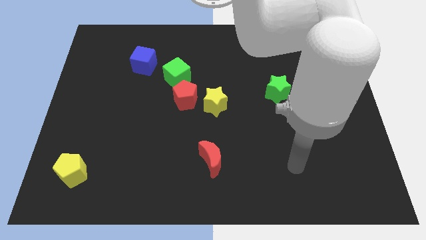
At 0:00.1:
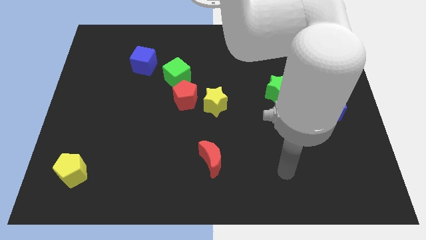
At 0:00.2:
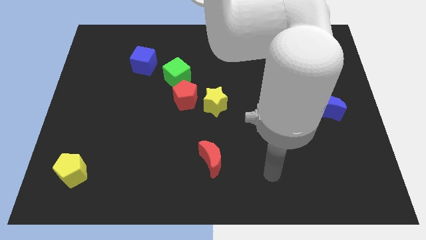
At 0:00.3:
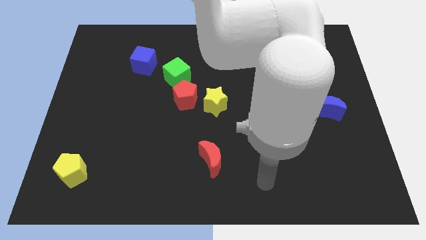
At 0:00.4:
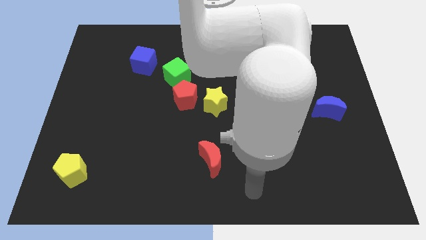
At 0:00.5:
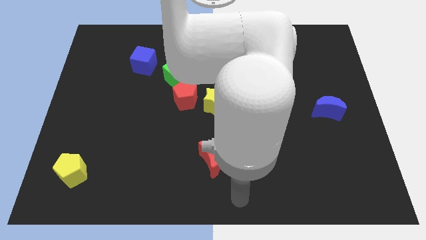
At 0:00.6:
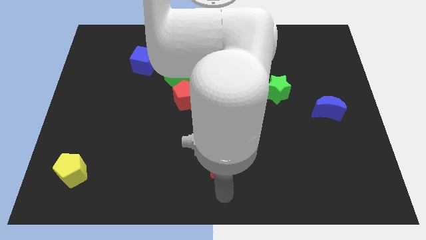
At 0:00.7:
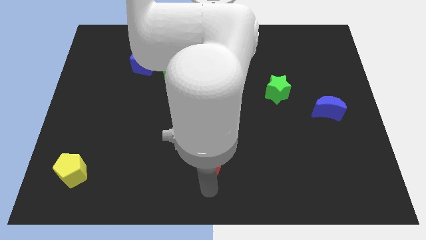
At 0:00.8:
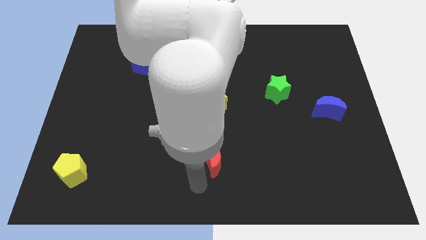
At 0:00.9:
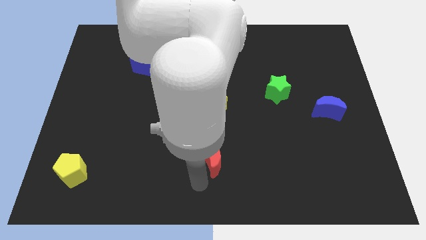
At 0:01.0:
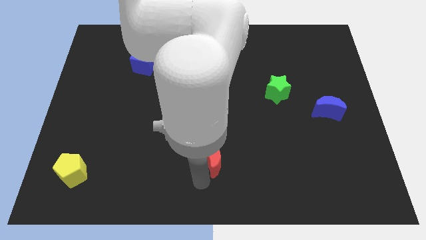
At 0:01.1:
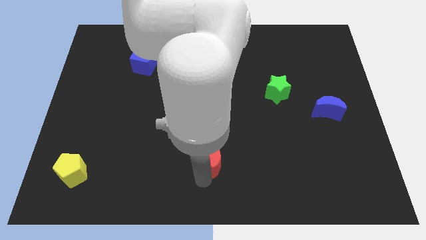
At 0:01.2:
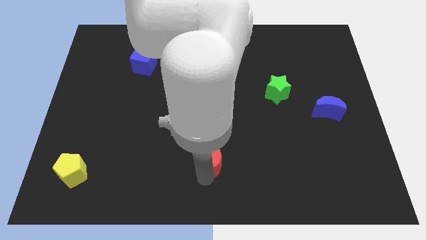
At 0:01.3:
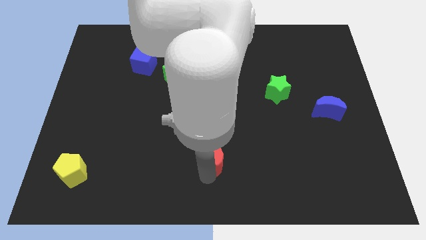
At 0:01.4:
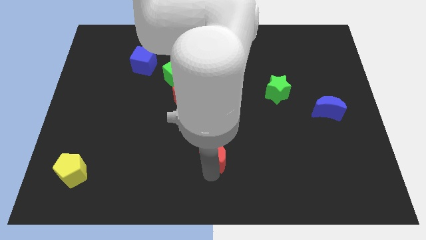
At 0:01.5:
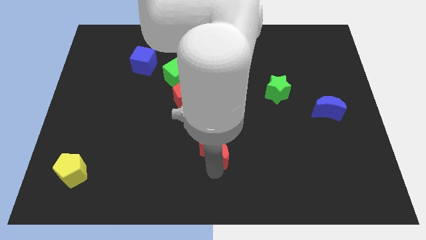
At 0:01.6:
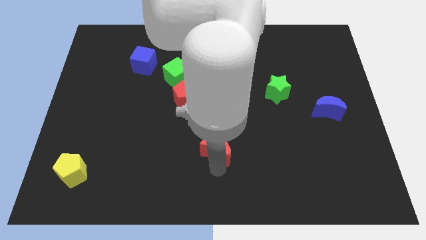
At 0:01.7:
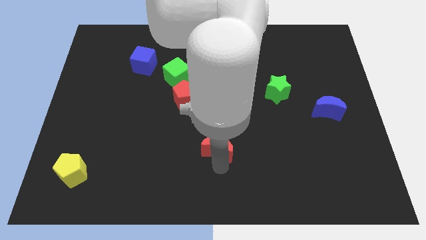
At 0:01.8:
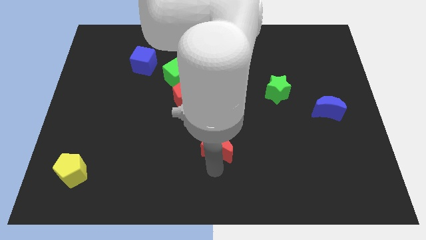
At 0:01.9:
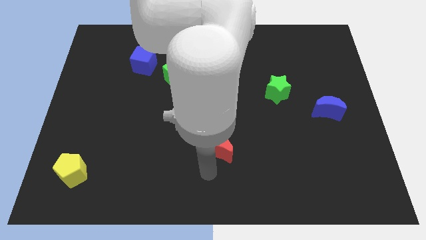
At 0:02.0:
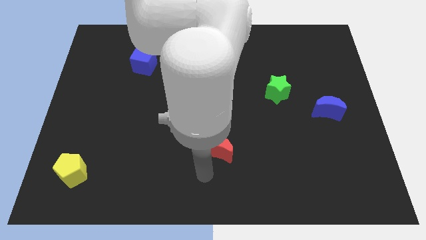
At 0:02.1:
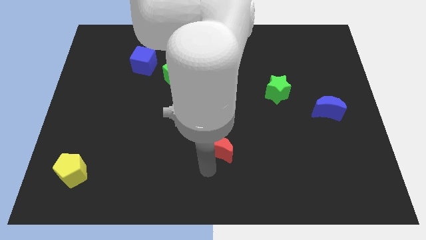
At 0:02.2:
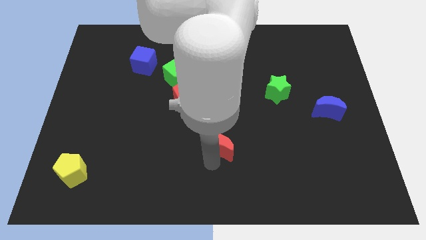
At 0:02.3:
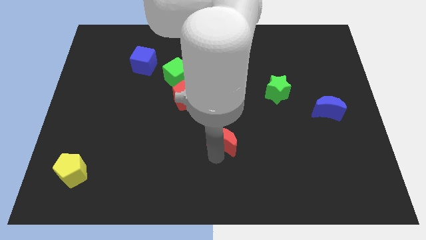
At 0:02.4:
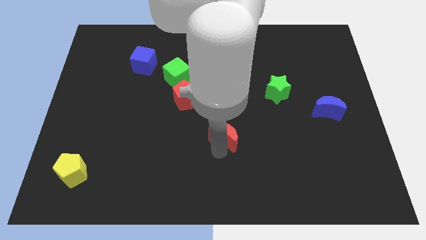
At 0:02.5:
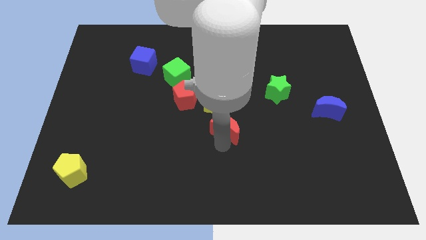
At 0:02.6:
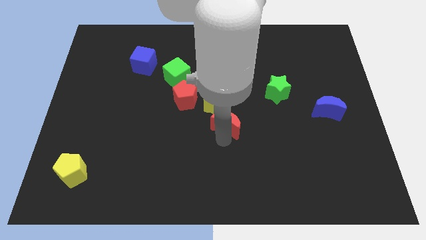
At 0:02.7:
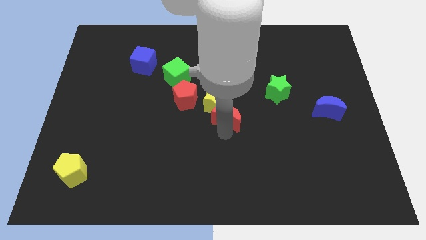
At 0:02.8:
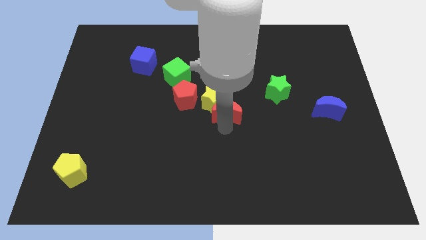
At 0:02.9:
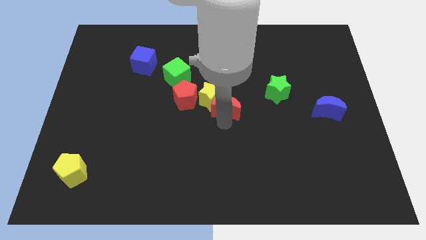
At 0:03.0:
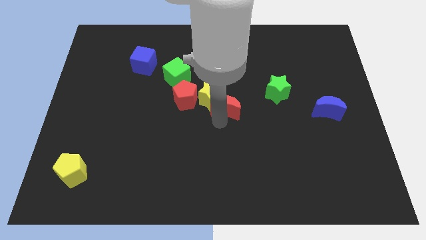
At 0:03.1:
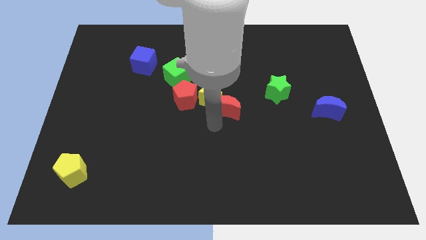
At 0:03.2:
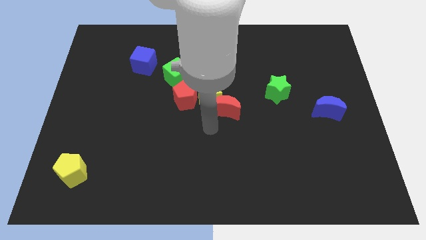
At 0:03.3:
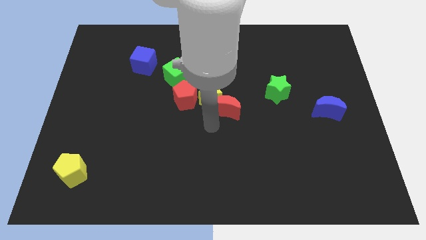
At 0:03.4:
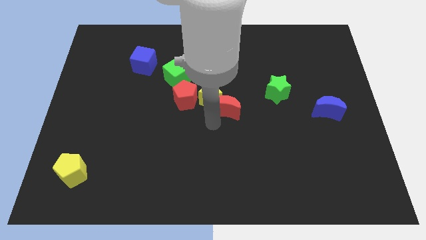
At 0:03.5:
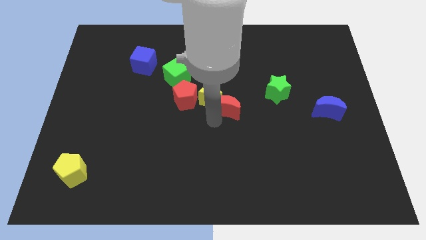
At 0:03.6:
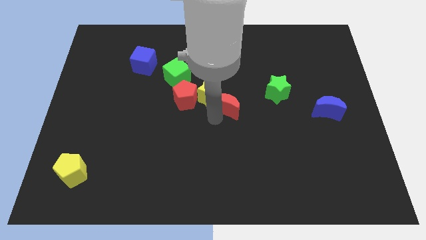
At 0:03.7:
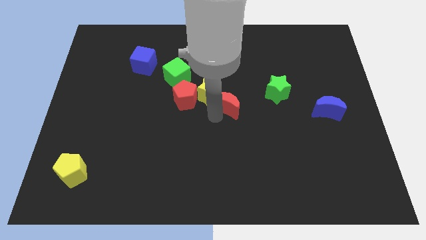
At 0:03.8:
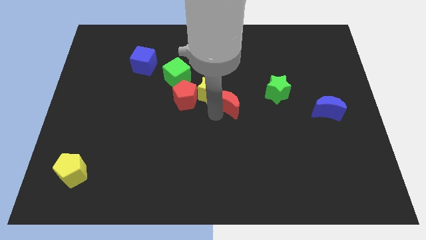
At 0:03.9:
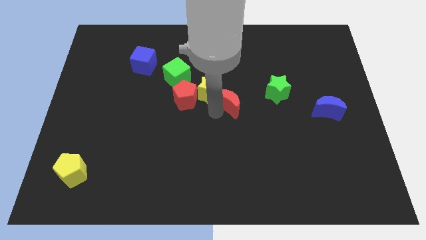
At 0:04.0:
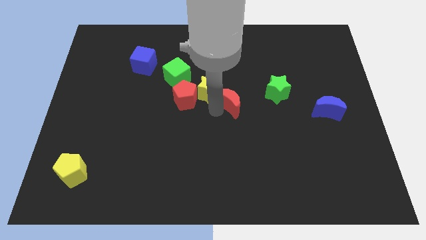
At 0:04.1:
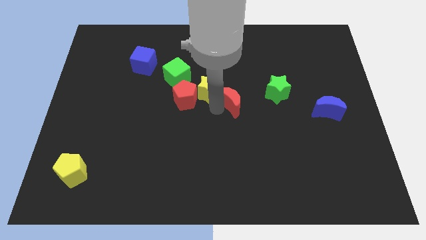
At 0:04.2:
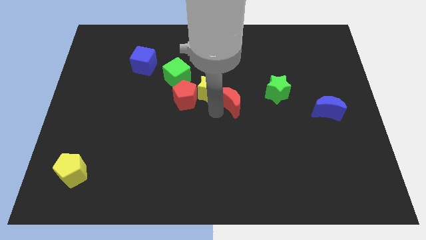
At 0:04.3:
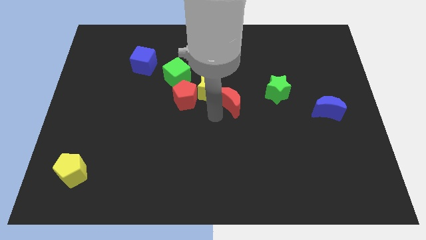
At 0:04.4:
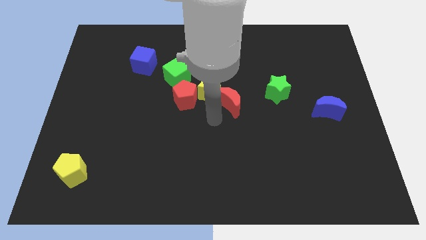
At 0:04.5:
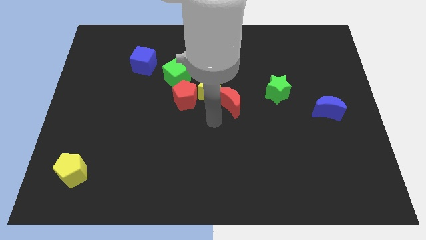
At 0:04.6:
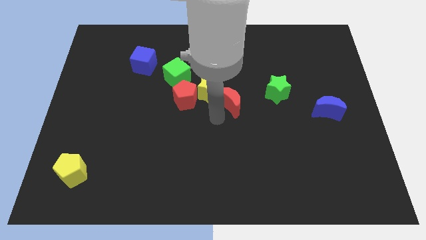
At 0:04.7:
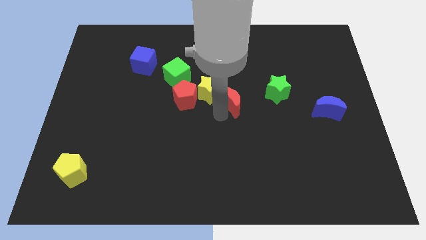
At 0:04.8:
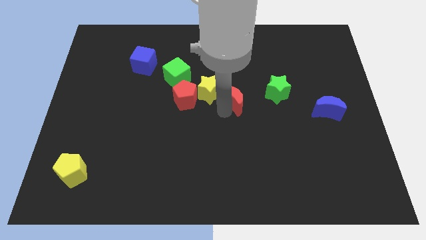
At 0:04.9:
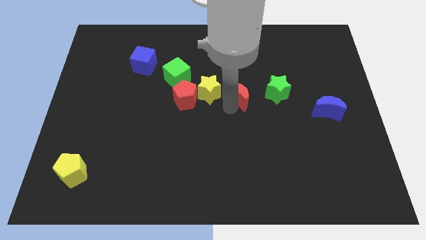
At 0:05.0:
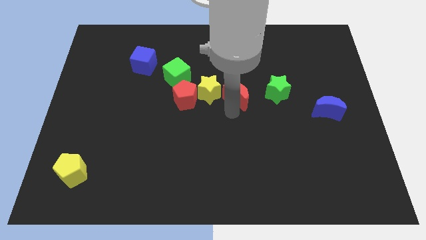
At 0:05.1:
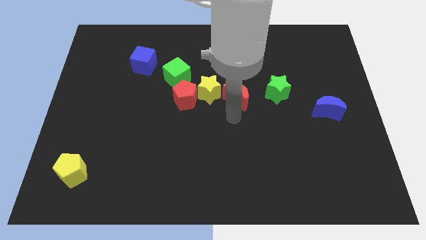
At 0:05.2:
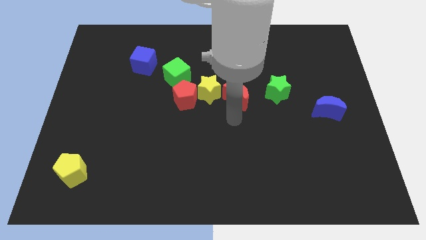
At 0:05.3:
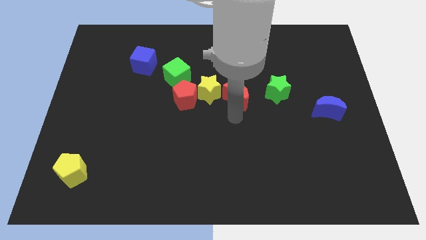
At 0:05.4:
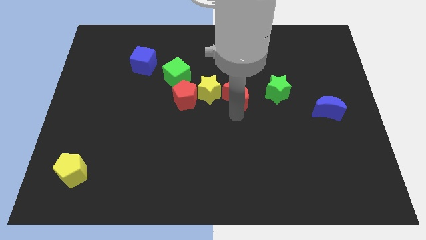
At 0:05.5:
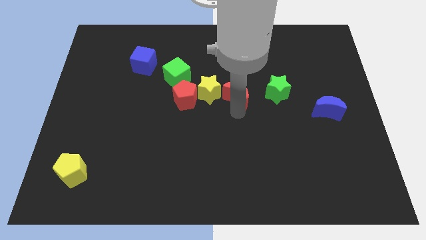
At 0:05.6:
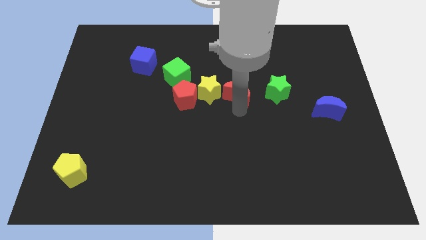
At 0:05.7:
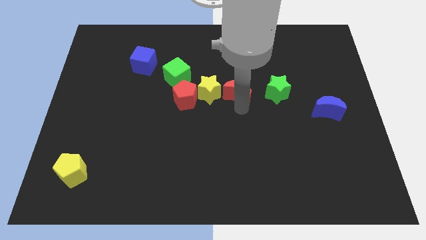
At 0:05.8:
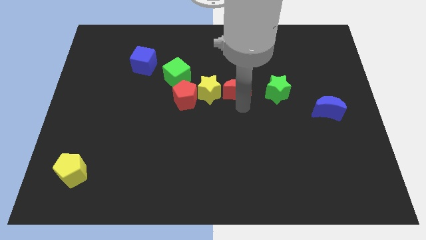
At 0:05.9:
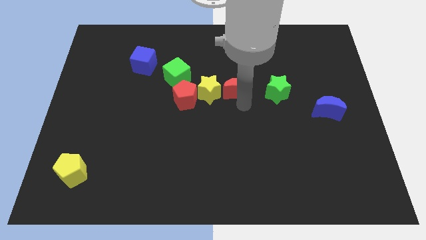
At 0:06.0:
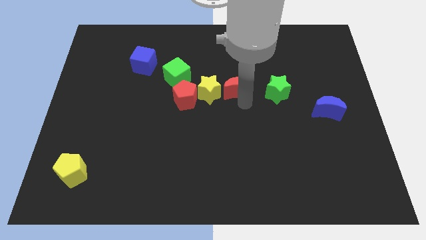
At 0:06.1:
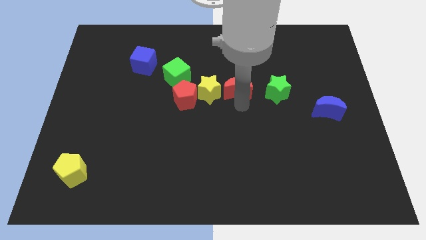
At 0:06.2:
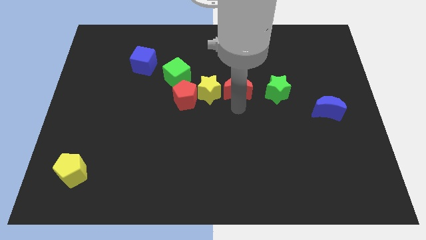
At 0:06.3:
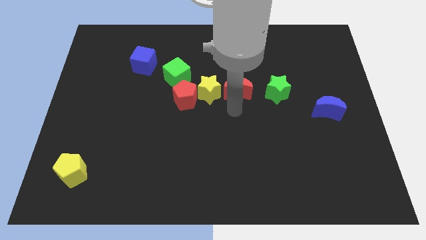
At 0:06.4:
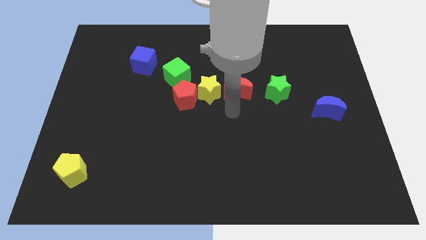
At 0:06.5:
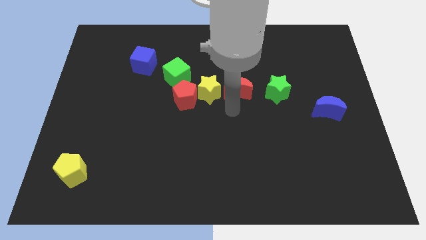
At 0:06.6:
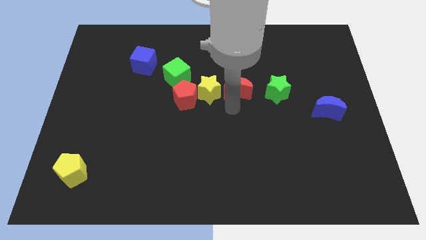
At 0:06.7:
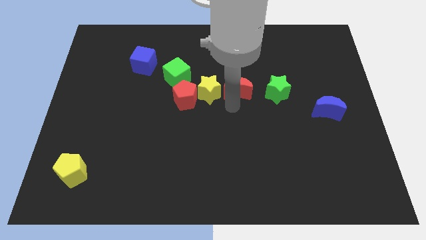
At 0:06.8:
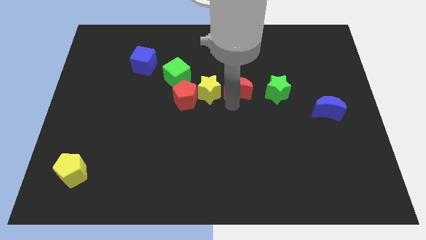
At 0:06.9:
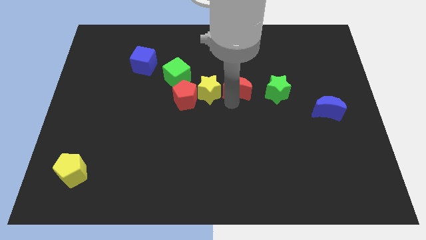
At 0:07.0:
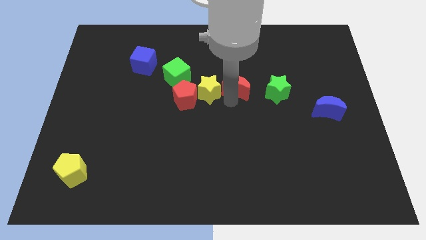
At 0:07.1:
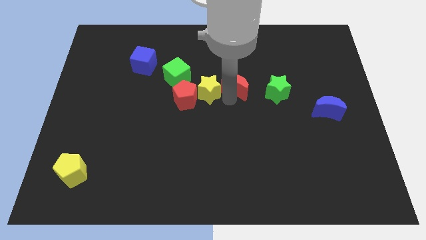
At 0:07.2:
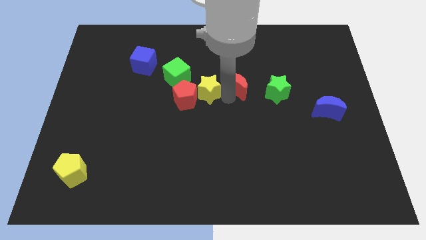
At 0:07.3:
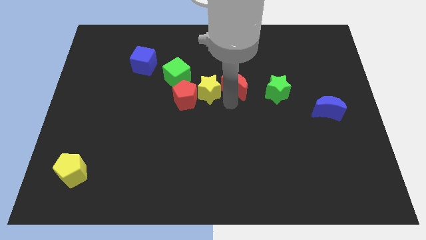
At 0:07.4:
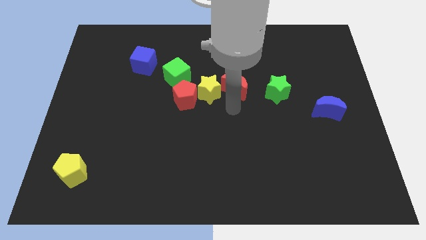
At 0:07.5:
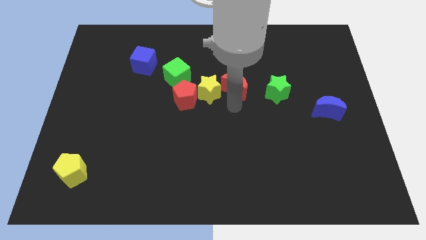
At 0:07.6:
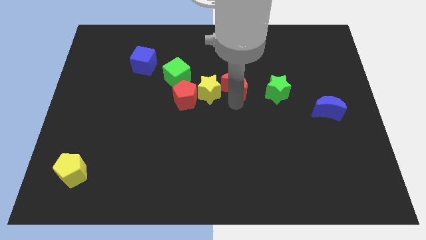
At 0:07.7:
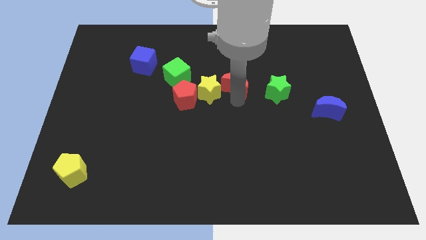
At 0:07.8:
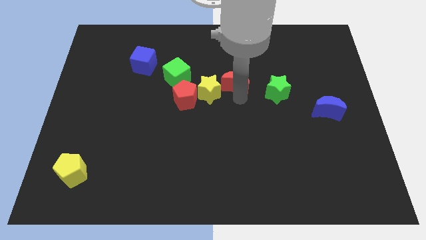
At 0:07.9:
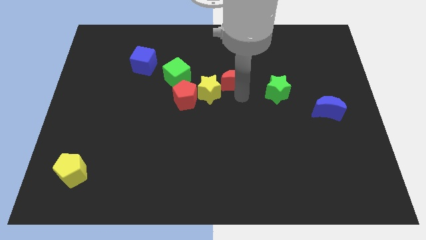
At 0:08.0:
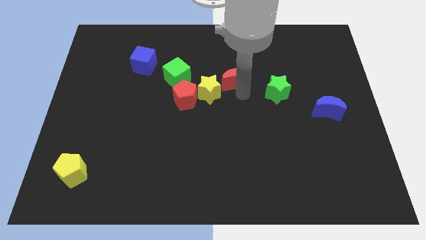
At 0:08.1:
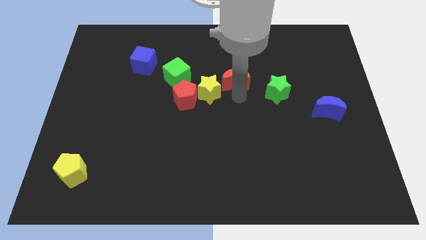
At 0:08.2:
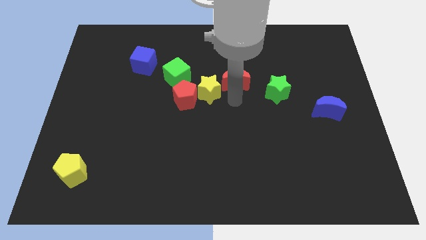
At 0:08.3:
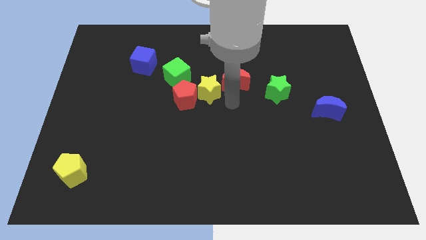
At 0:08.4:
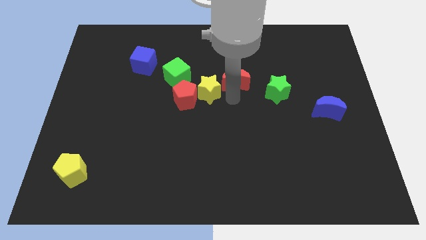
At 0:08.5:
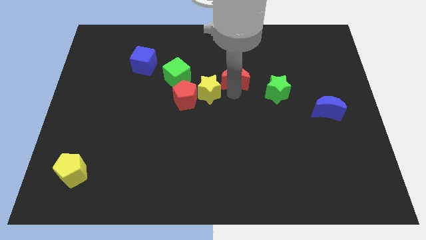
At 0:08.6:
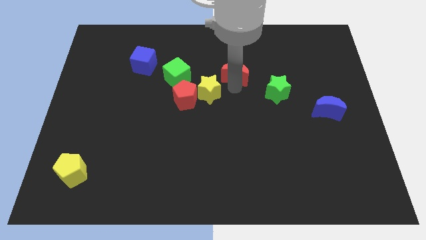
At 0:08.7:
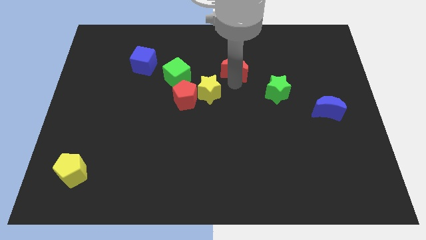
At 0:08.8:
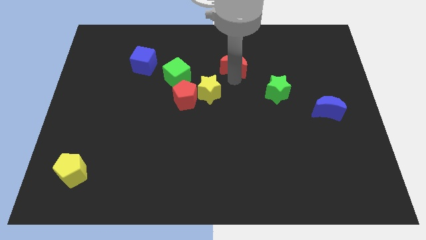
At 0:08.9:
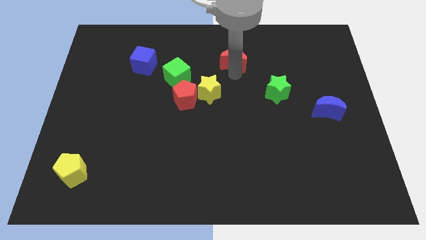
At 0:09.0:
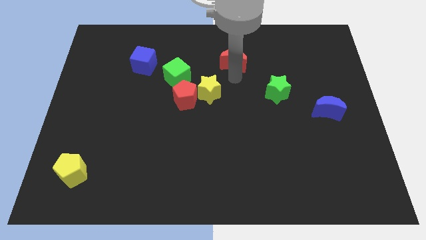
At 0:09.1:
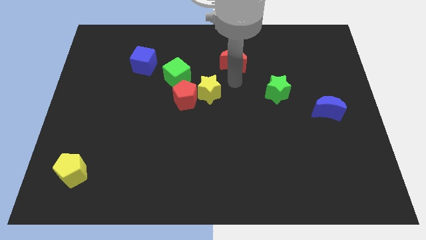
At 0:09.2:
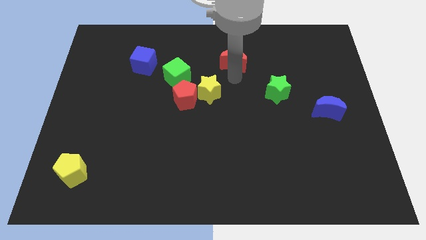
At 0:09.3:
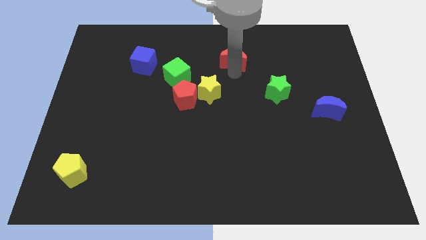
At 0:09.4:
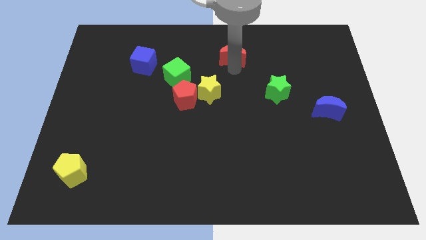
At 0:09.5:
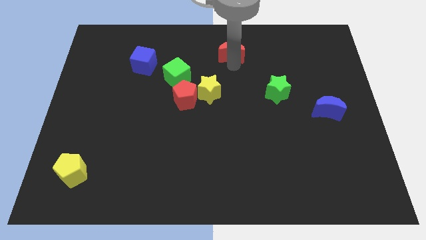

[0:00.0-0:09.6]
put the red moon to the top side
